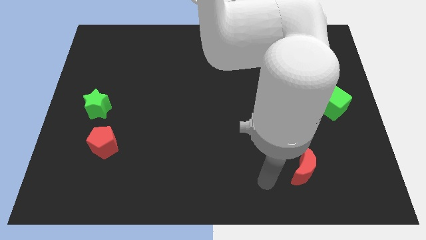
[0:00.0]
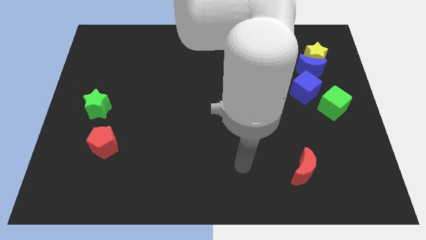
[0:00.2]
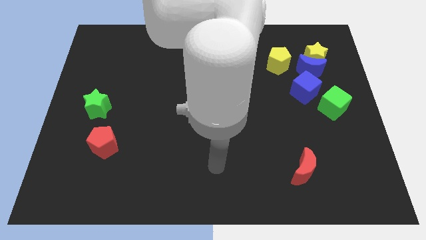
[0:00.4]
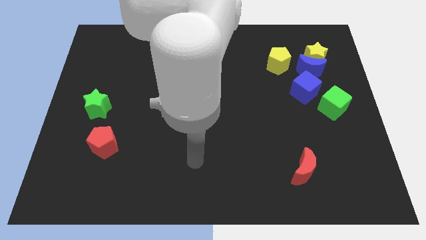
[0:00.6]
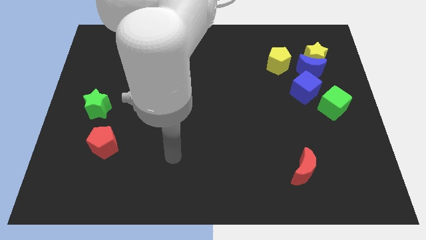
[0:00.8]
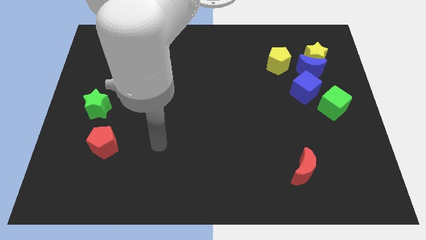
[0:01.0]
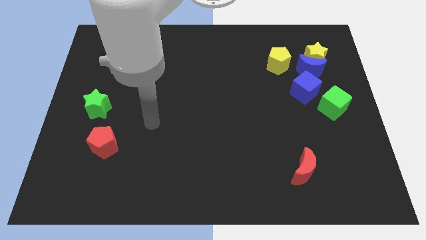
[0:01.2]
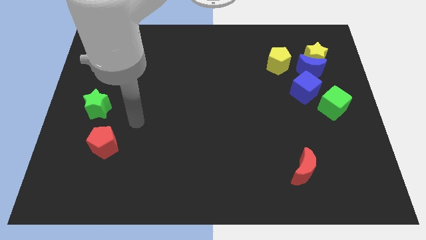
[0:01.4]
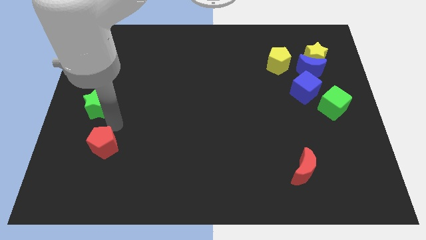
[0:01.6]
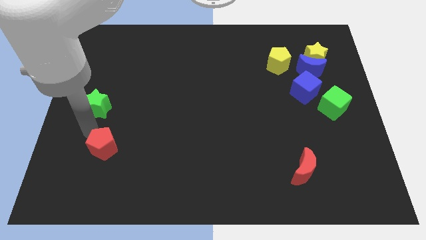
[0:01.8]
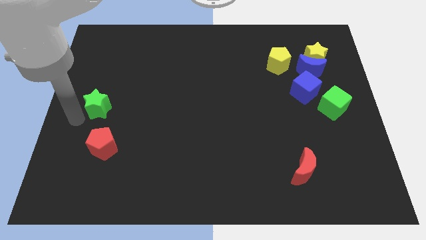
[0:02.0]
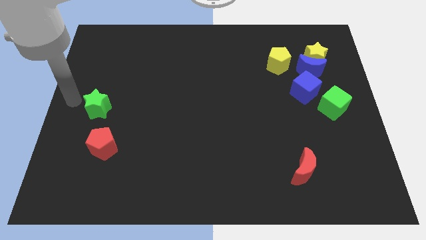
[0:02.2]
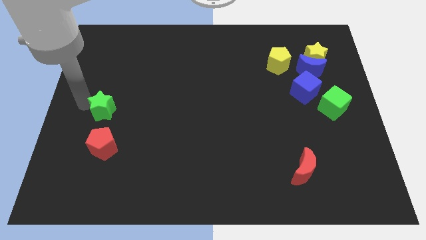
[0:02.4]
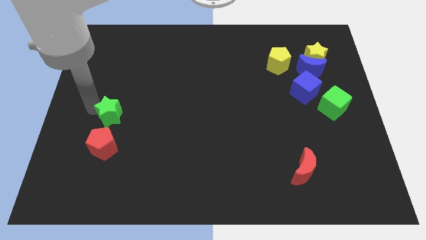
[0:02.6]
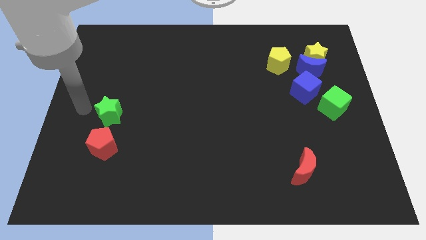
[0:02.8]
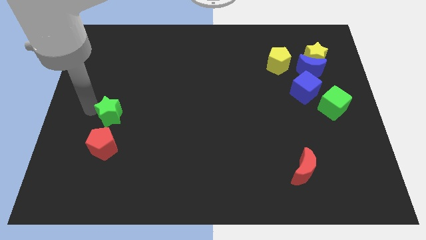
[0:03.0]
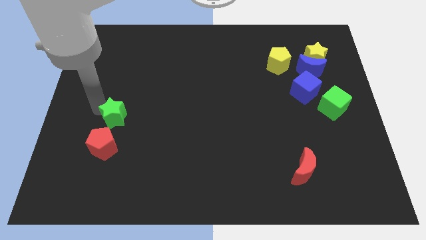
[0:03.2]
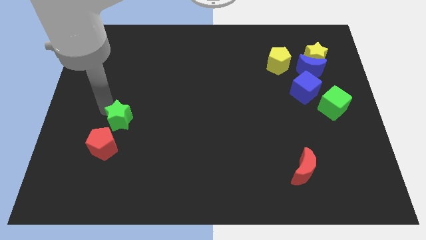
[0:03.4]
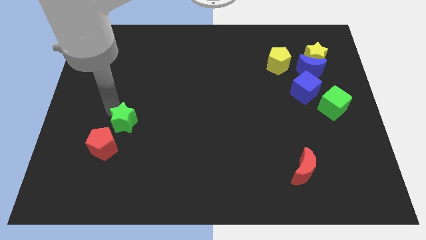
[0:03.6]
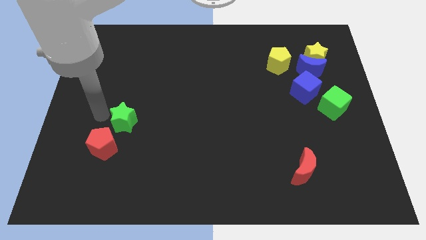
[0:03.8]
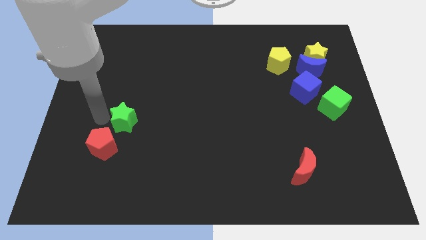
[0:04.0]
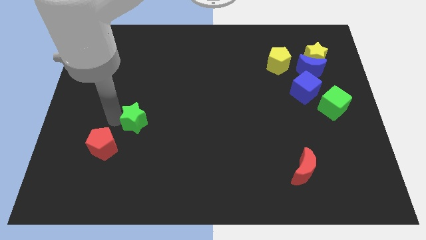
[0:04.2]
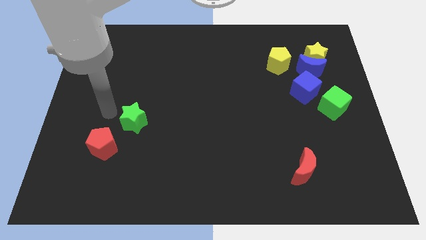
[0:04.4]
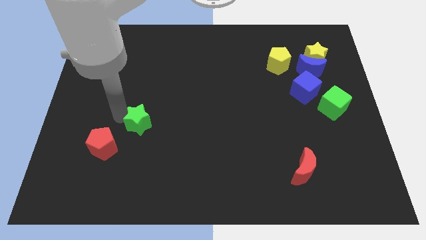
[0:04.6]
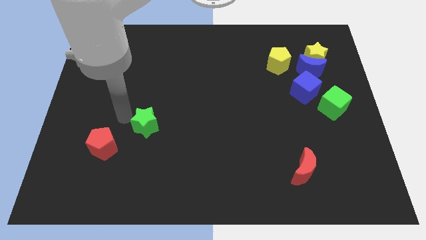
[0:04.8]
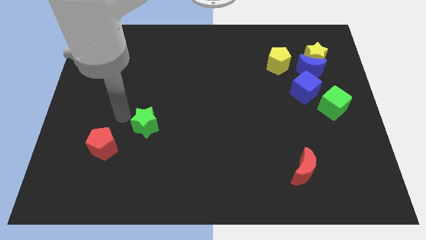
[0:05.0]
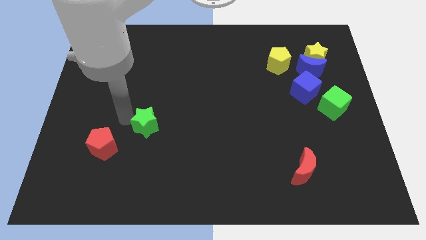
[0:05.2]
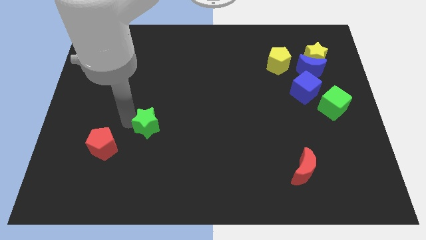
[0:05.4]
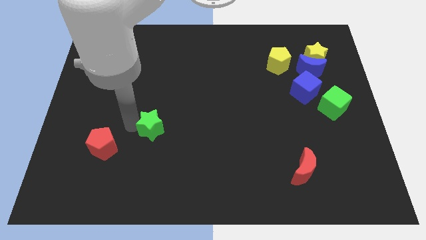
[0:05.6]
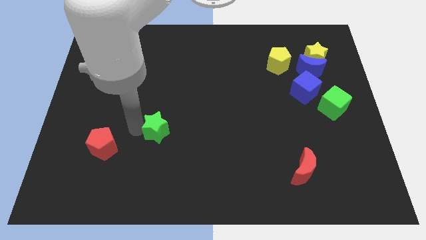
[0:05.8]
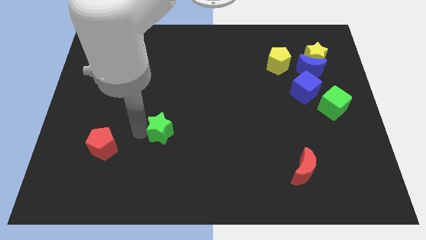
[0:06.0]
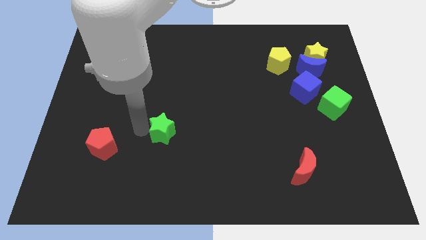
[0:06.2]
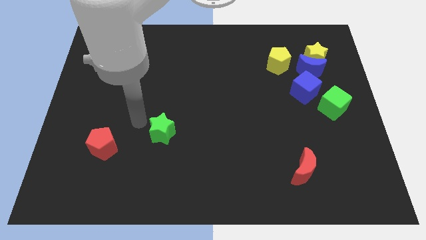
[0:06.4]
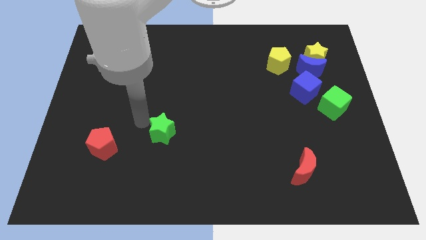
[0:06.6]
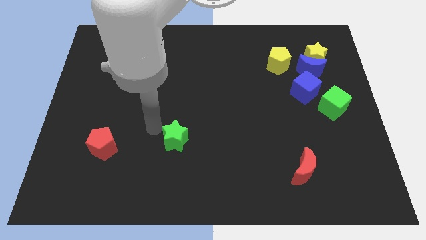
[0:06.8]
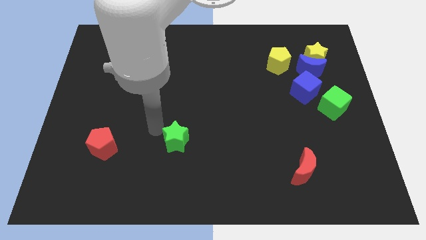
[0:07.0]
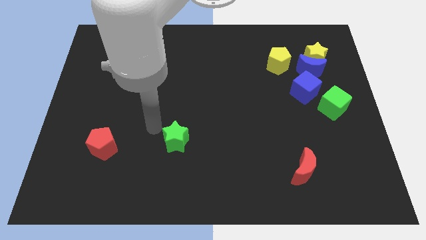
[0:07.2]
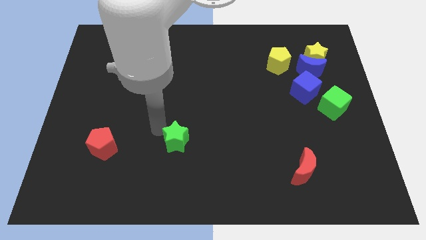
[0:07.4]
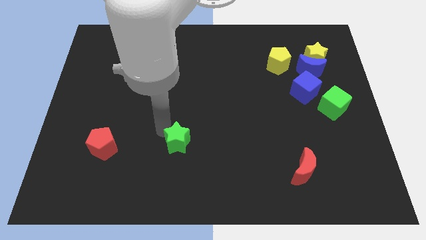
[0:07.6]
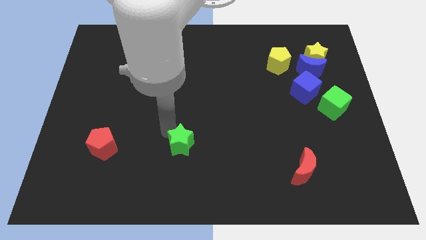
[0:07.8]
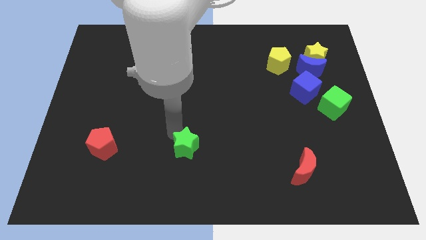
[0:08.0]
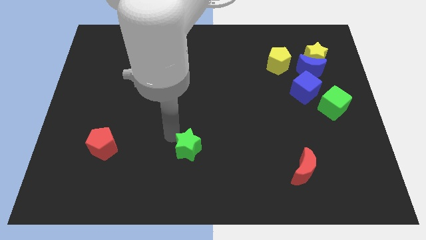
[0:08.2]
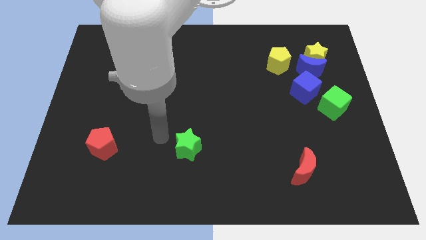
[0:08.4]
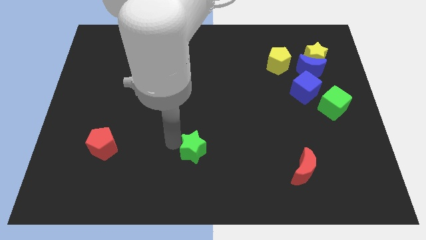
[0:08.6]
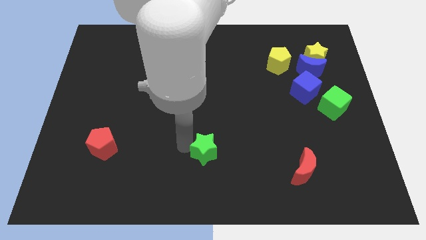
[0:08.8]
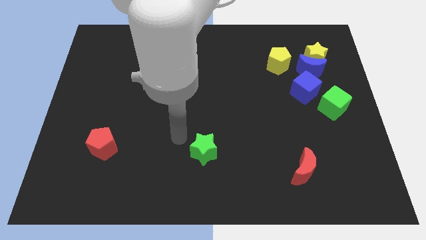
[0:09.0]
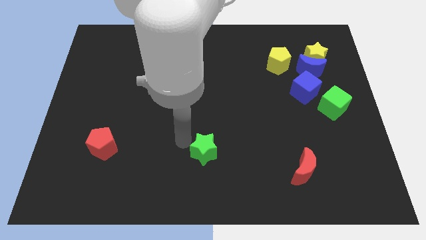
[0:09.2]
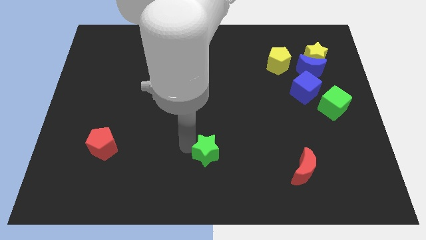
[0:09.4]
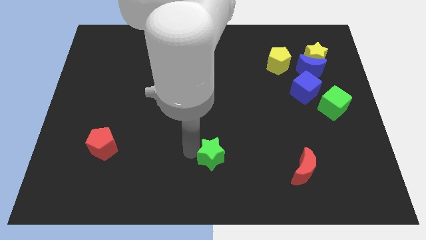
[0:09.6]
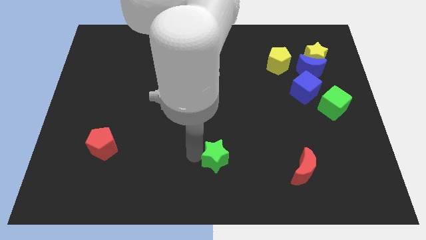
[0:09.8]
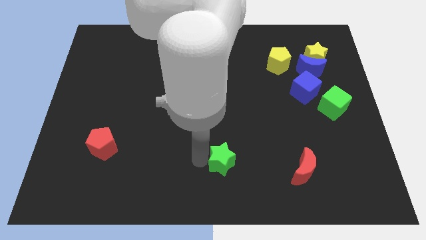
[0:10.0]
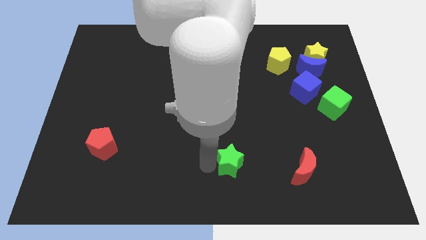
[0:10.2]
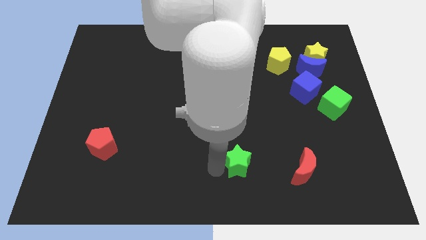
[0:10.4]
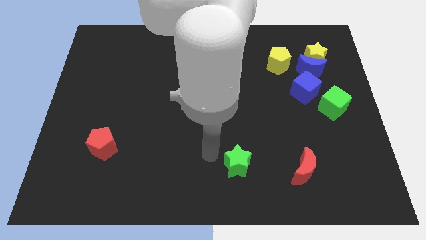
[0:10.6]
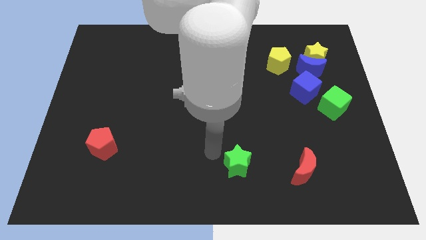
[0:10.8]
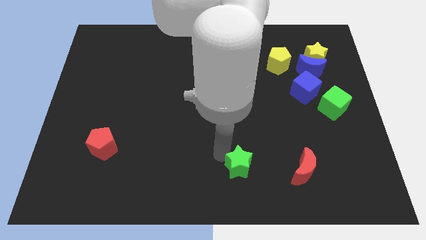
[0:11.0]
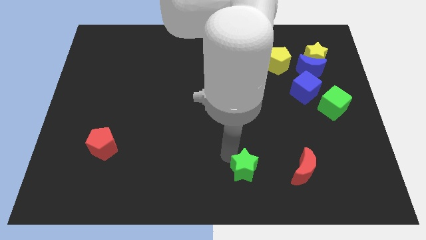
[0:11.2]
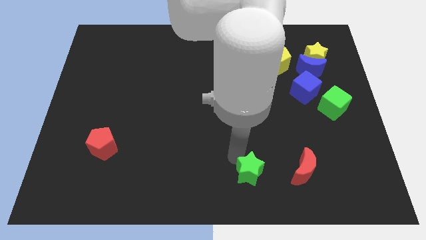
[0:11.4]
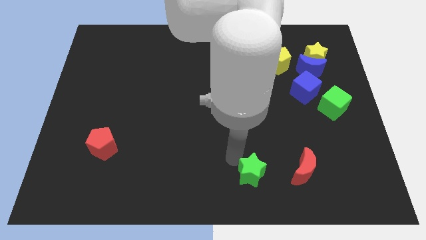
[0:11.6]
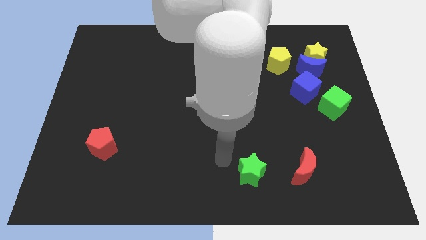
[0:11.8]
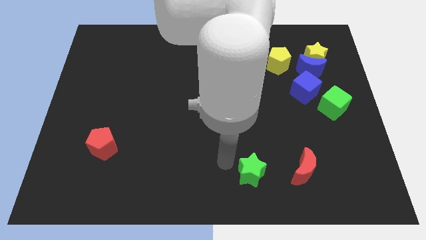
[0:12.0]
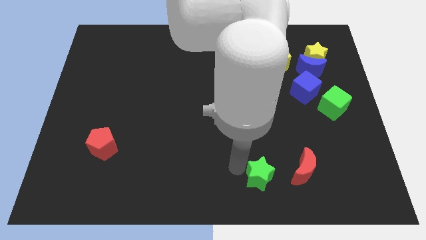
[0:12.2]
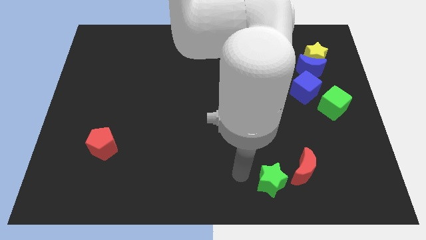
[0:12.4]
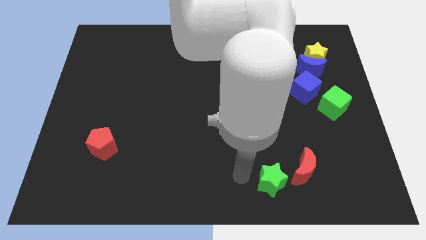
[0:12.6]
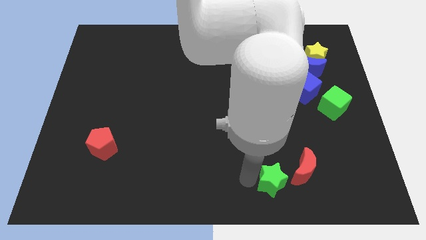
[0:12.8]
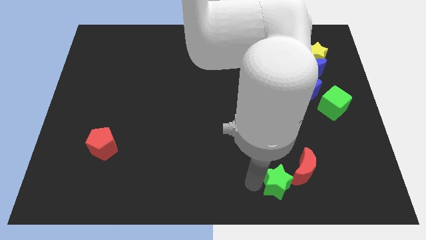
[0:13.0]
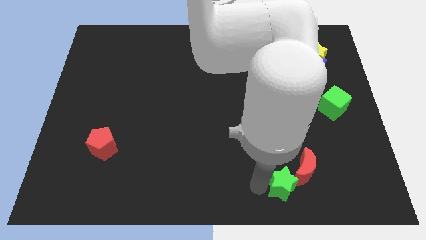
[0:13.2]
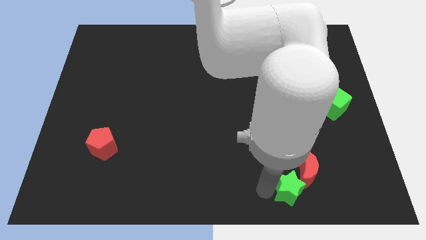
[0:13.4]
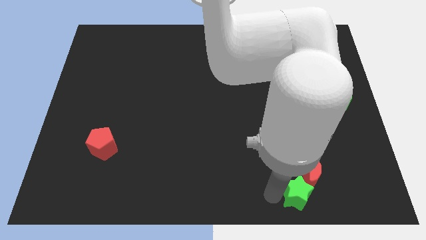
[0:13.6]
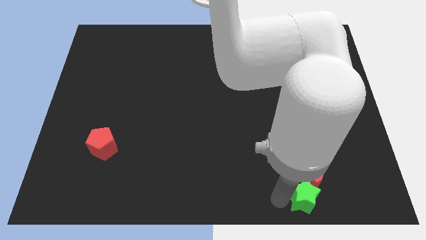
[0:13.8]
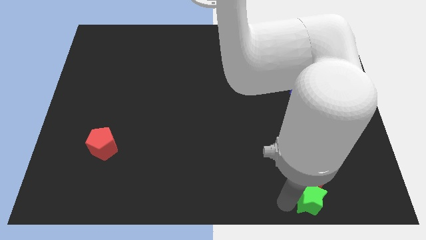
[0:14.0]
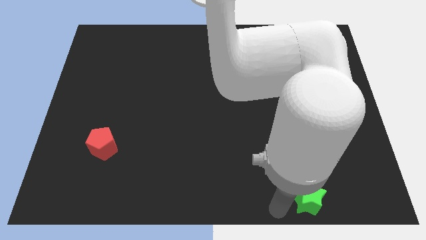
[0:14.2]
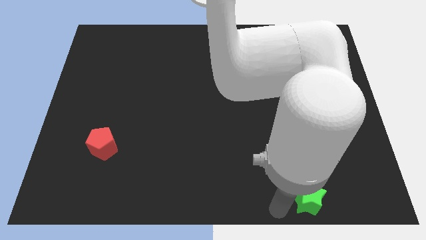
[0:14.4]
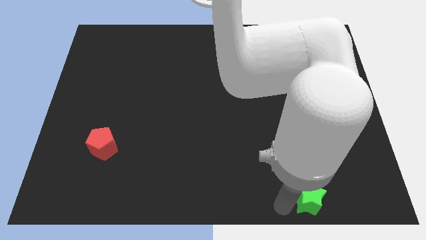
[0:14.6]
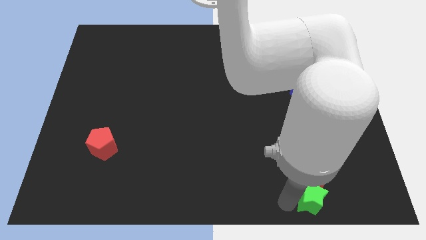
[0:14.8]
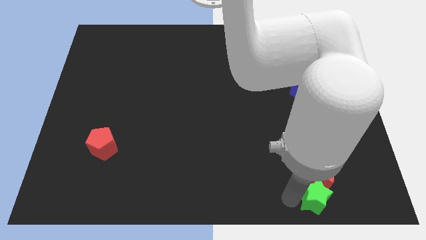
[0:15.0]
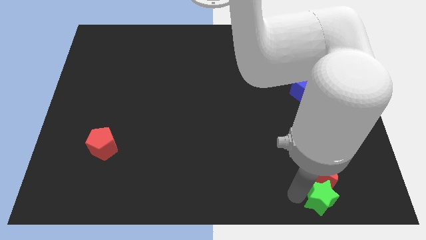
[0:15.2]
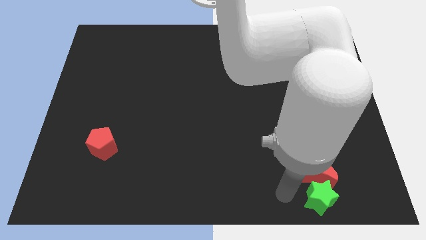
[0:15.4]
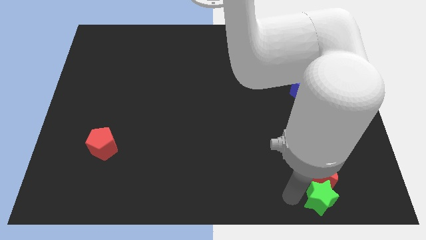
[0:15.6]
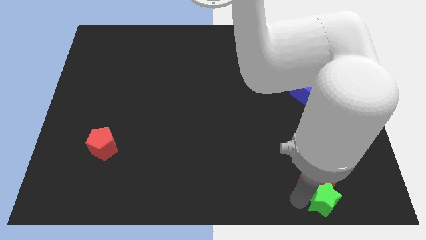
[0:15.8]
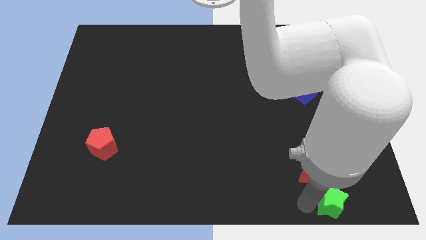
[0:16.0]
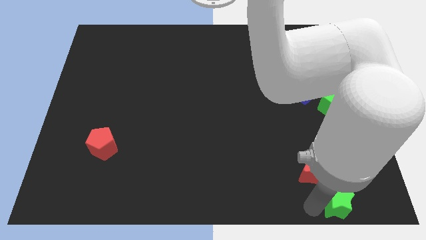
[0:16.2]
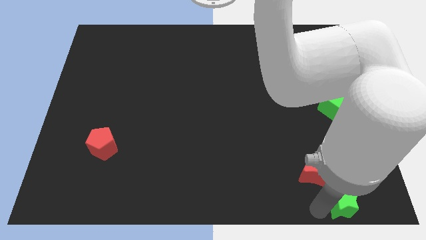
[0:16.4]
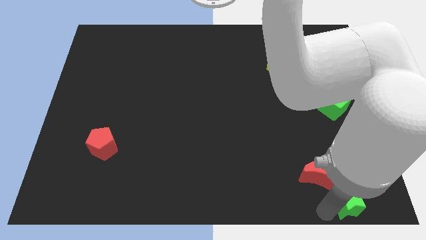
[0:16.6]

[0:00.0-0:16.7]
put the green star to the bottom right
